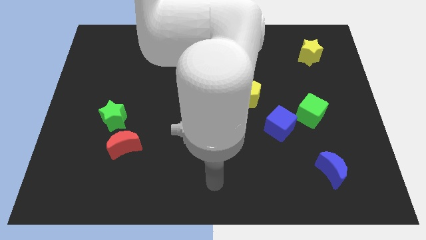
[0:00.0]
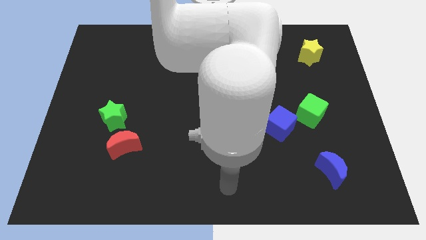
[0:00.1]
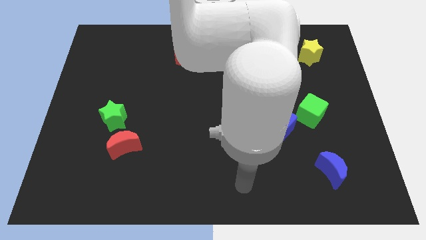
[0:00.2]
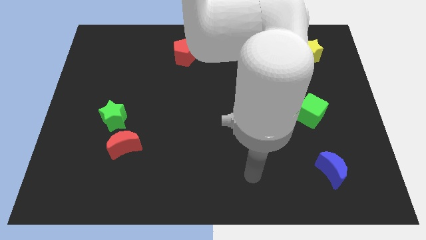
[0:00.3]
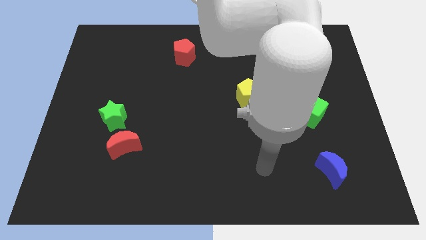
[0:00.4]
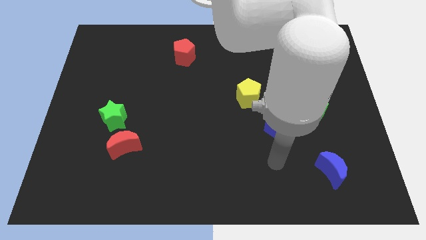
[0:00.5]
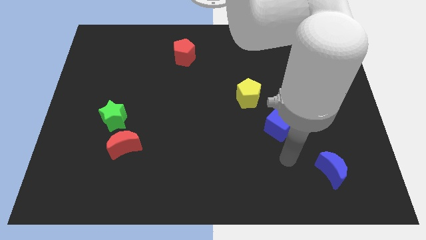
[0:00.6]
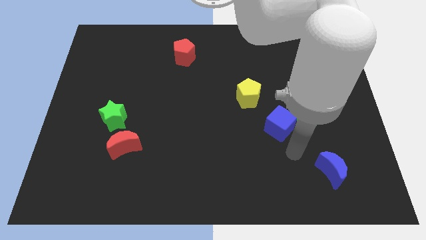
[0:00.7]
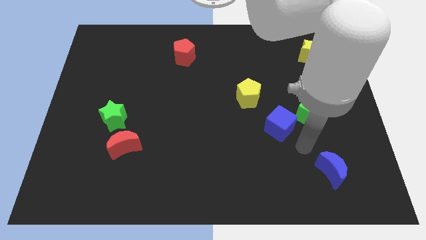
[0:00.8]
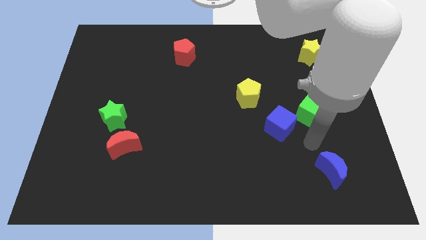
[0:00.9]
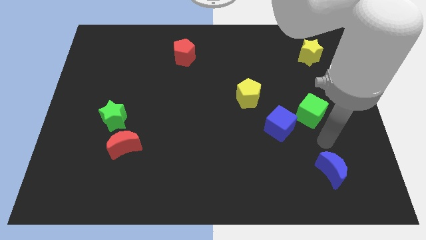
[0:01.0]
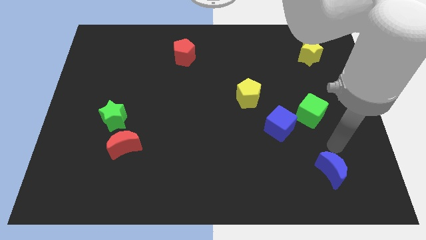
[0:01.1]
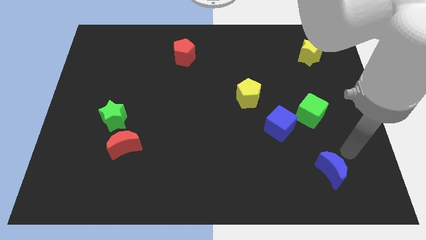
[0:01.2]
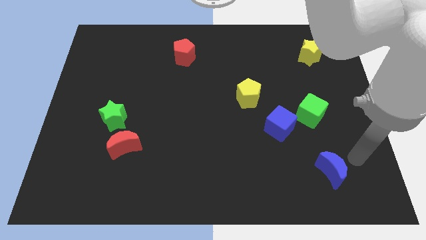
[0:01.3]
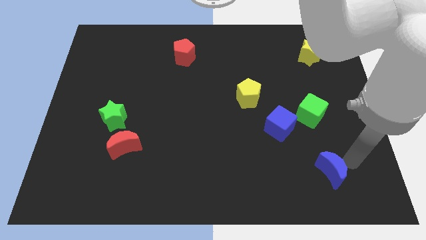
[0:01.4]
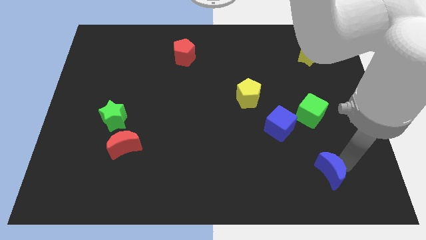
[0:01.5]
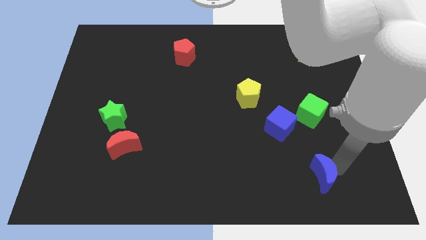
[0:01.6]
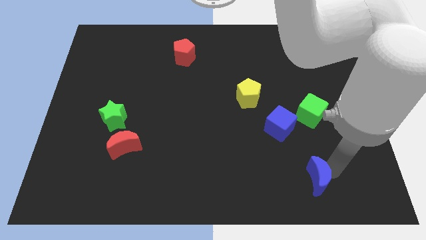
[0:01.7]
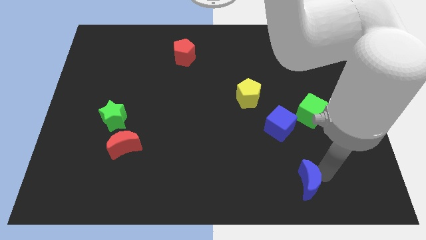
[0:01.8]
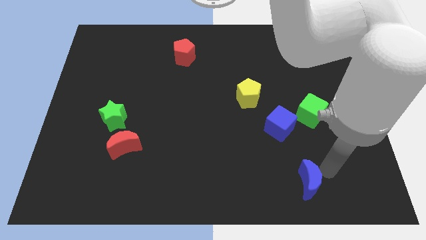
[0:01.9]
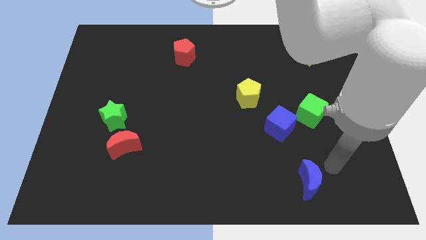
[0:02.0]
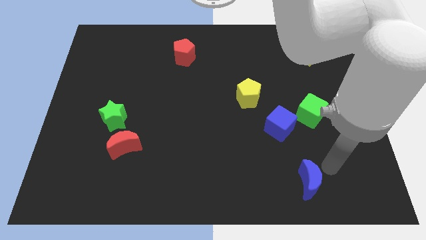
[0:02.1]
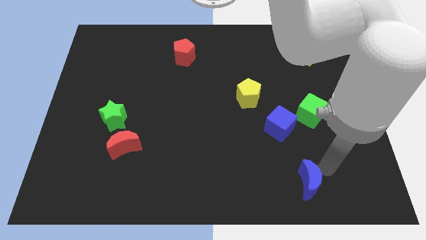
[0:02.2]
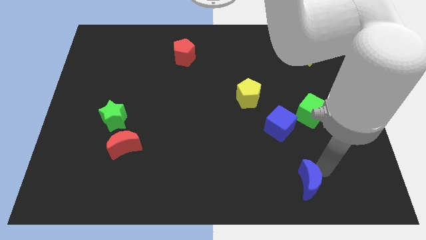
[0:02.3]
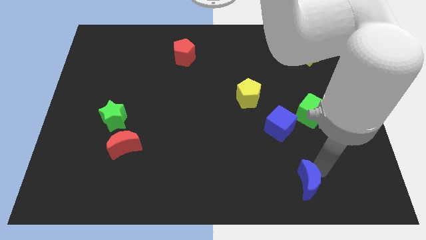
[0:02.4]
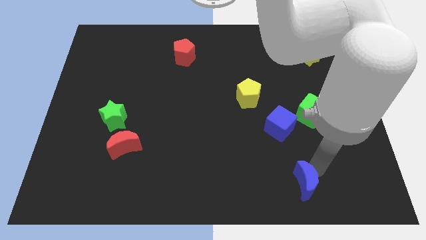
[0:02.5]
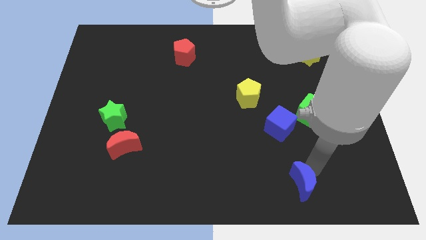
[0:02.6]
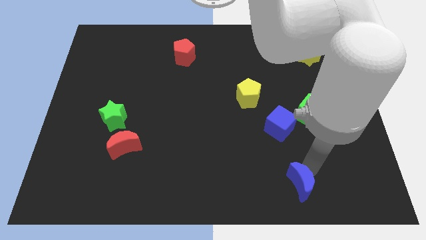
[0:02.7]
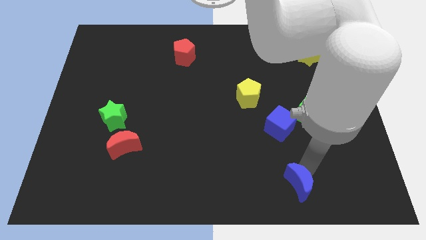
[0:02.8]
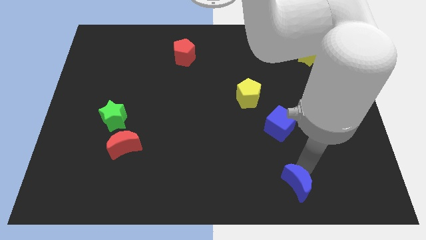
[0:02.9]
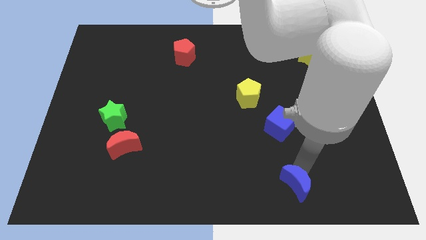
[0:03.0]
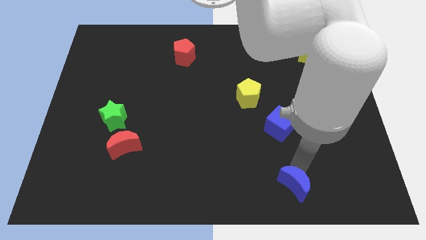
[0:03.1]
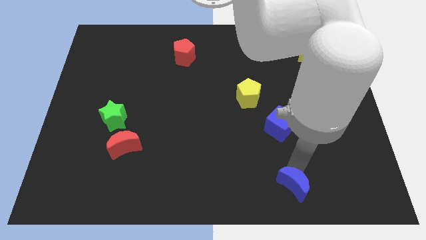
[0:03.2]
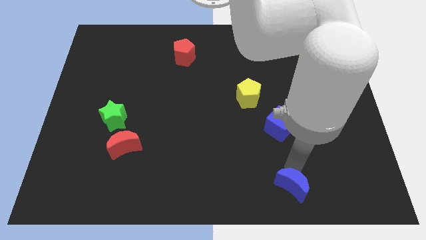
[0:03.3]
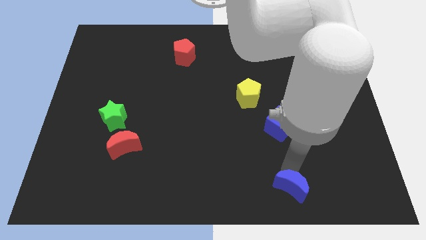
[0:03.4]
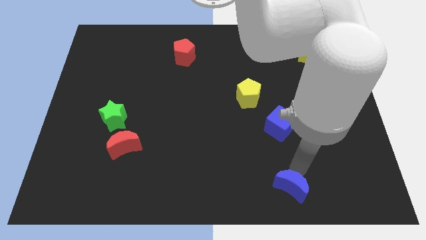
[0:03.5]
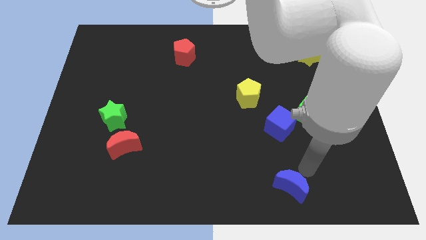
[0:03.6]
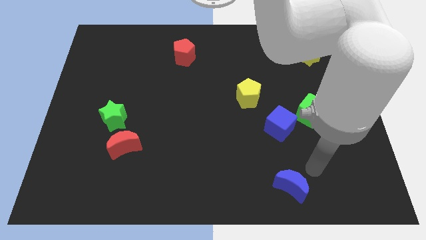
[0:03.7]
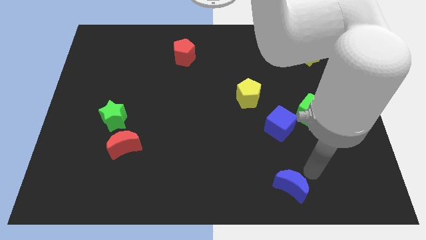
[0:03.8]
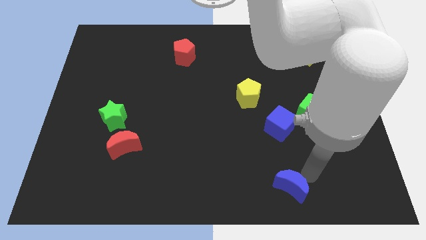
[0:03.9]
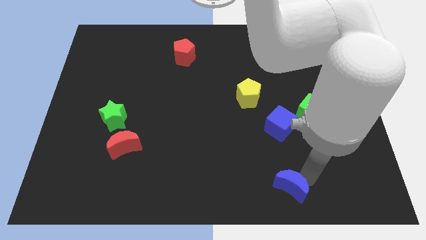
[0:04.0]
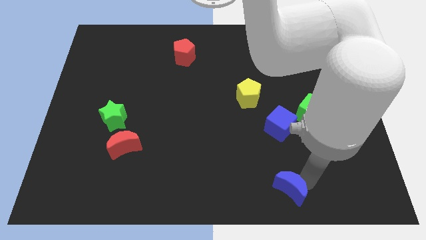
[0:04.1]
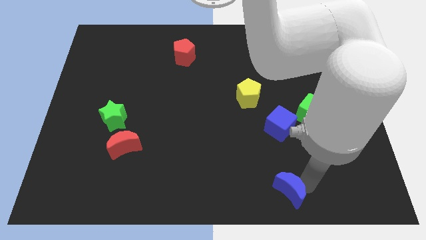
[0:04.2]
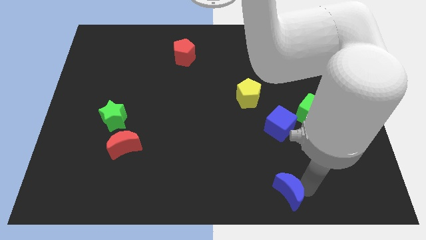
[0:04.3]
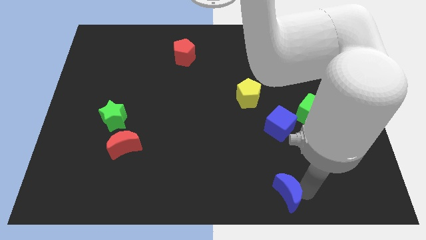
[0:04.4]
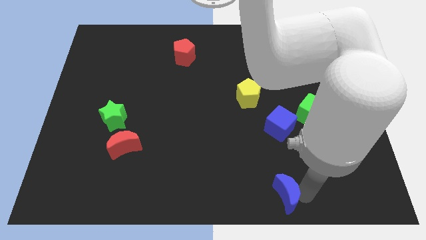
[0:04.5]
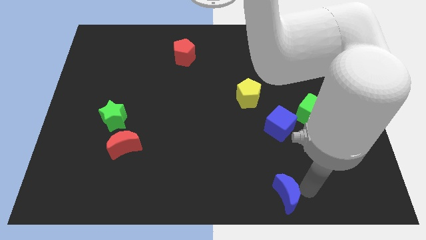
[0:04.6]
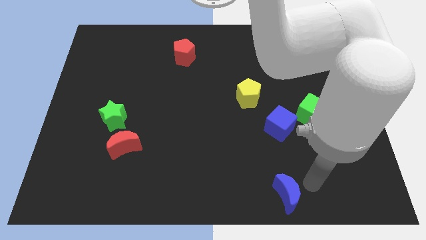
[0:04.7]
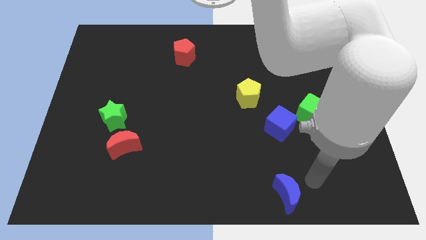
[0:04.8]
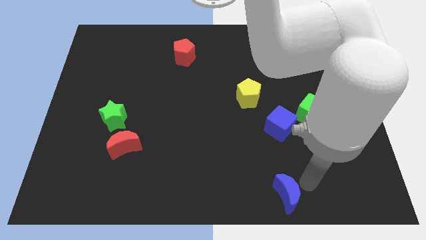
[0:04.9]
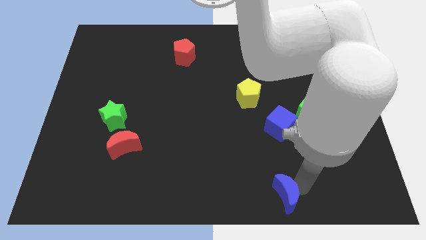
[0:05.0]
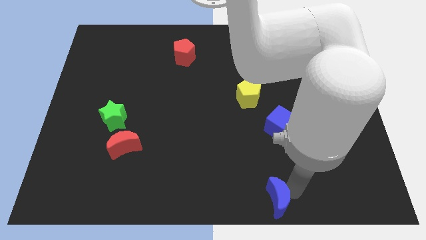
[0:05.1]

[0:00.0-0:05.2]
push the blue moon to the bottom
